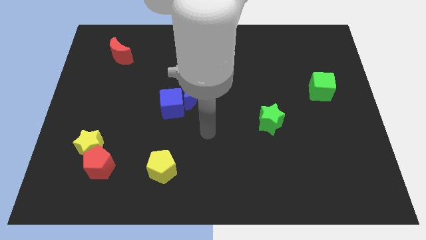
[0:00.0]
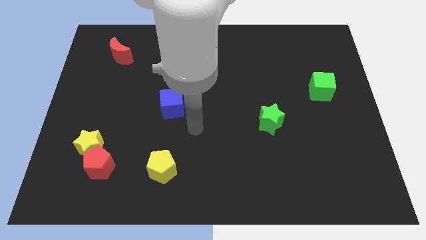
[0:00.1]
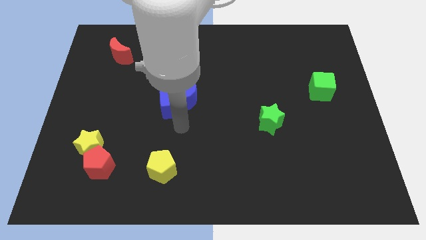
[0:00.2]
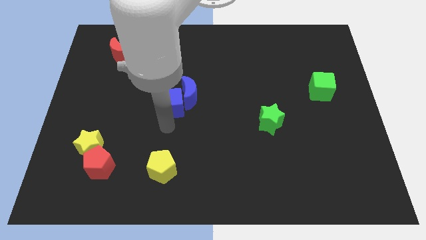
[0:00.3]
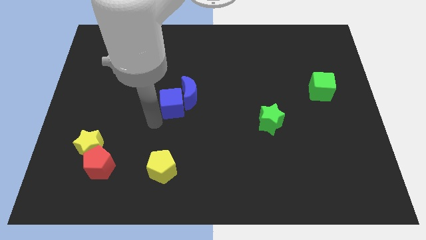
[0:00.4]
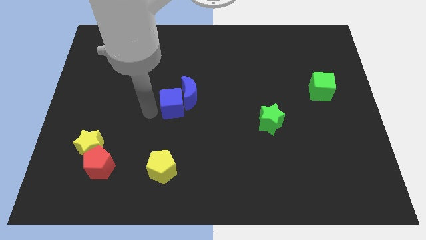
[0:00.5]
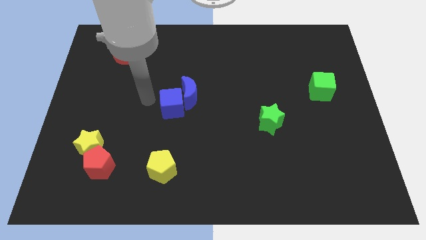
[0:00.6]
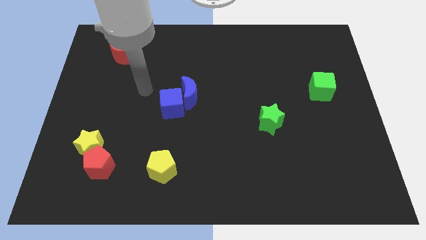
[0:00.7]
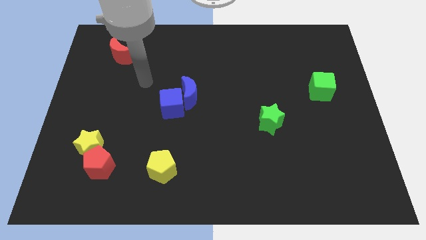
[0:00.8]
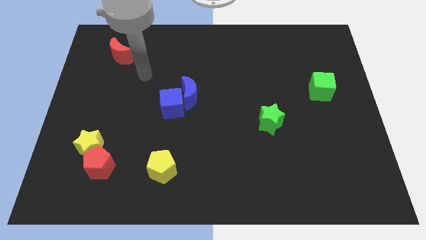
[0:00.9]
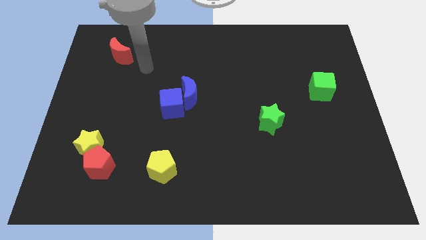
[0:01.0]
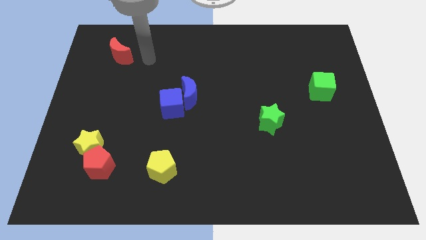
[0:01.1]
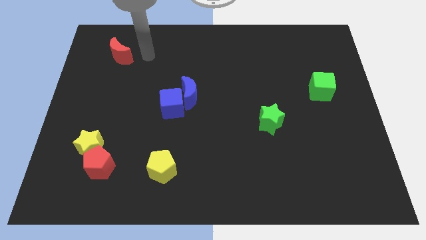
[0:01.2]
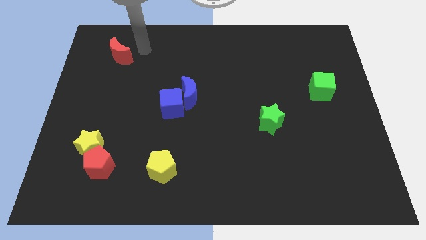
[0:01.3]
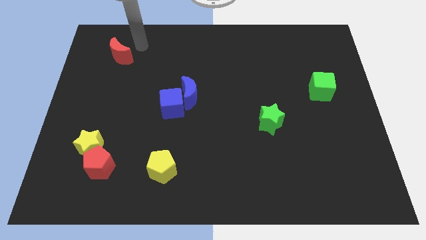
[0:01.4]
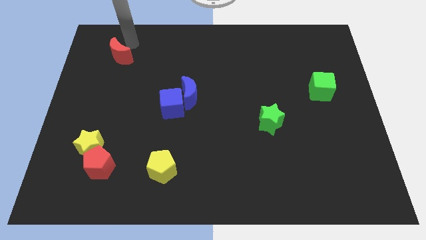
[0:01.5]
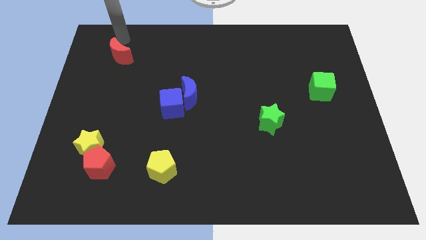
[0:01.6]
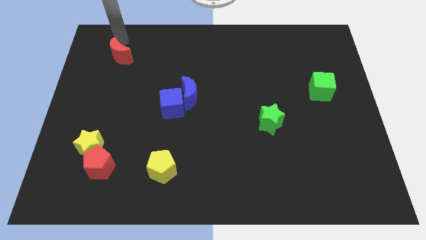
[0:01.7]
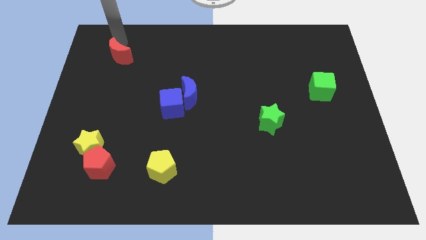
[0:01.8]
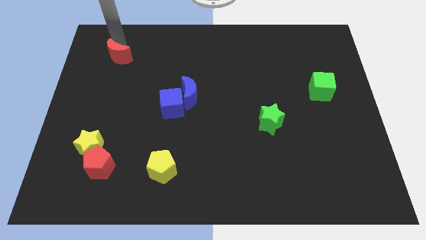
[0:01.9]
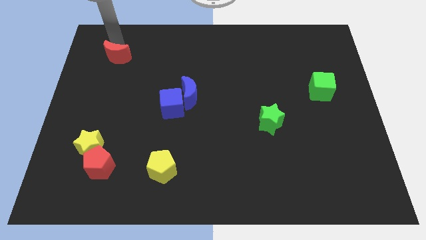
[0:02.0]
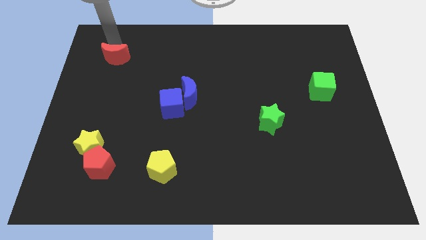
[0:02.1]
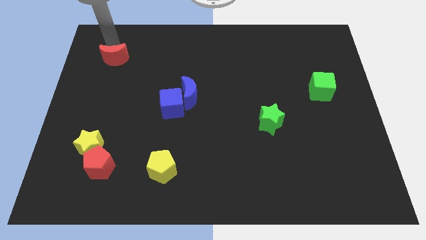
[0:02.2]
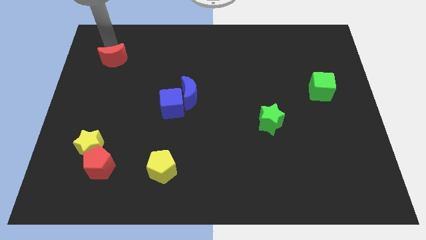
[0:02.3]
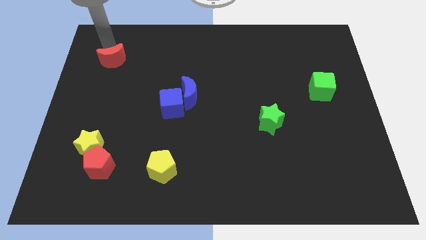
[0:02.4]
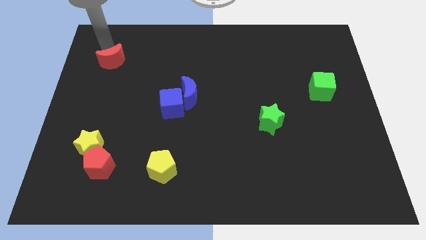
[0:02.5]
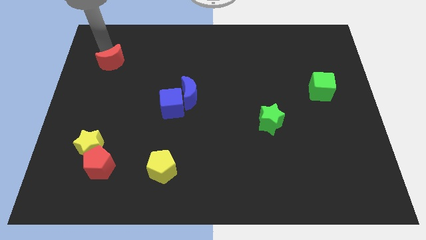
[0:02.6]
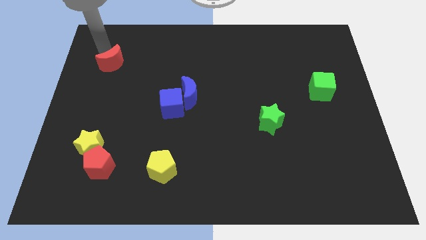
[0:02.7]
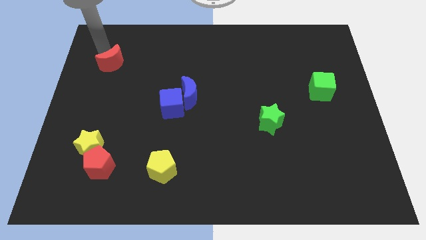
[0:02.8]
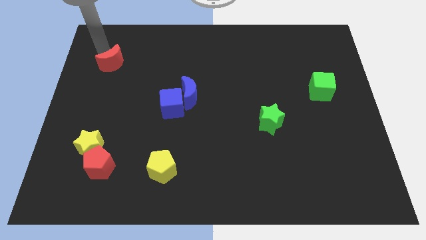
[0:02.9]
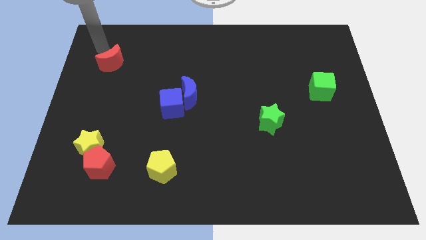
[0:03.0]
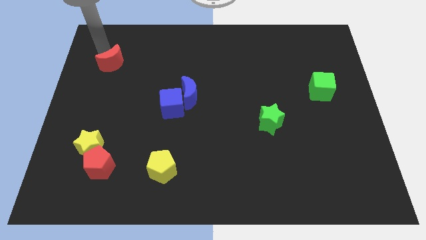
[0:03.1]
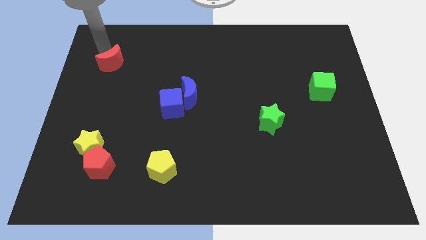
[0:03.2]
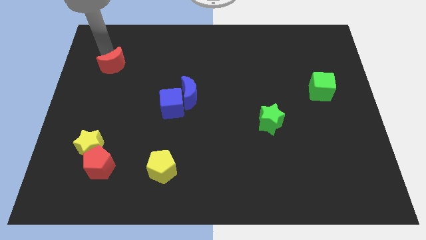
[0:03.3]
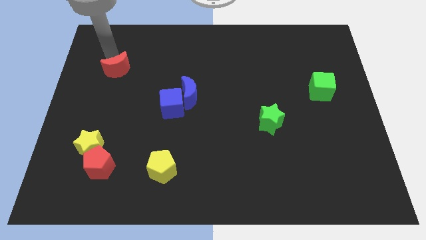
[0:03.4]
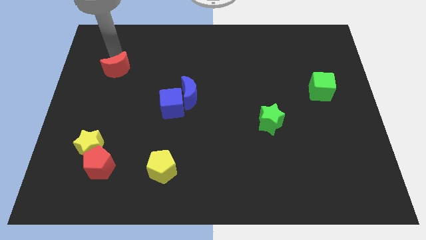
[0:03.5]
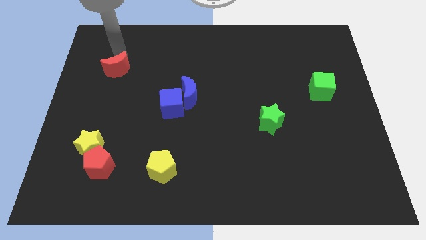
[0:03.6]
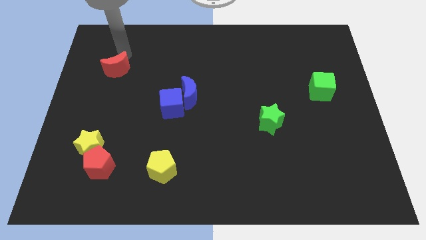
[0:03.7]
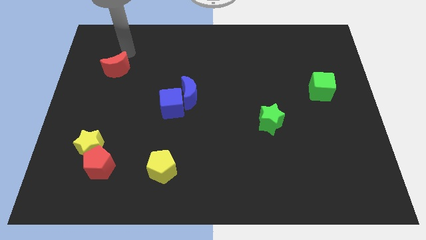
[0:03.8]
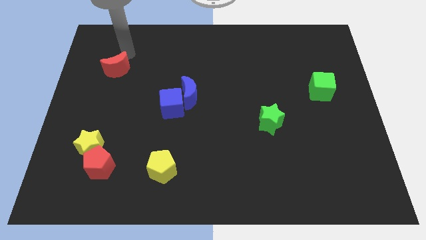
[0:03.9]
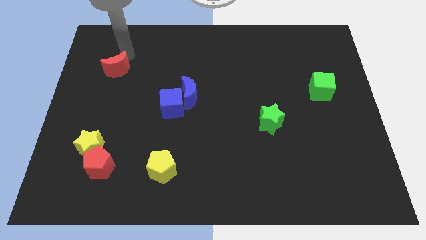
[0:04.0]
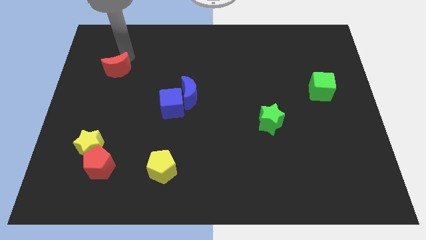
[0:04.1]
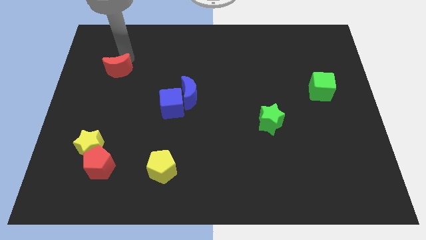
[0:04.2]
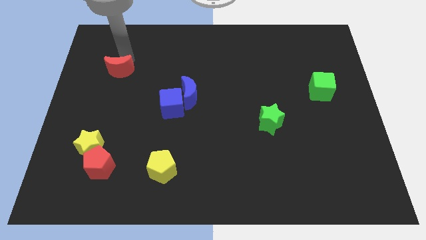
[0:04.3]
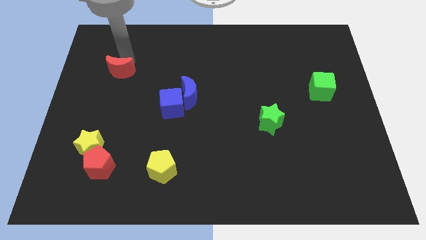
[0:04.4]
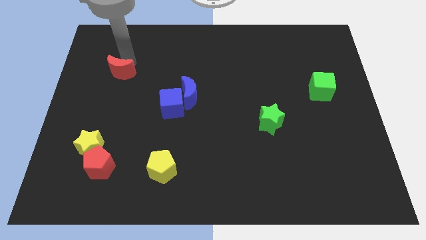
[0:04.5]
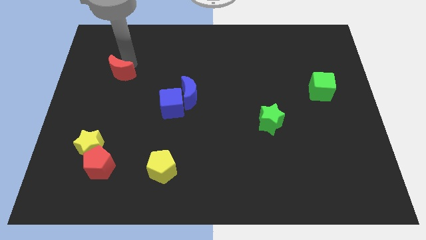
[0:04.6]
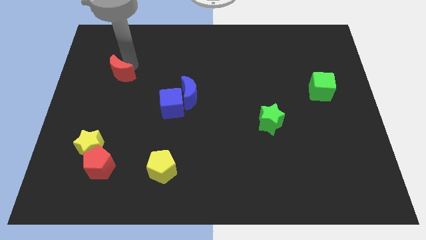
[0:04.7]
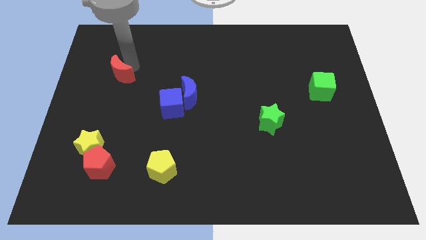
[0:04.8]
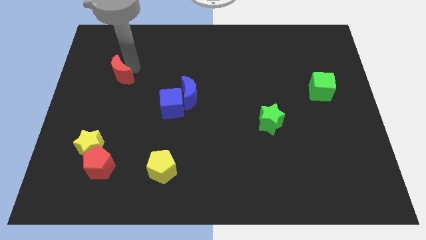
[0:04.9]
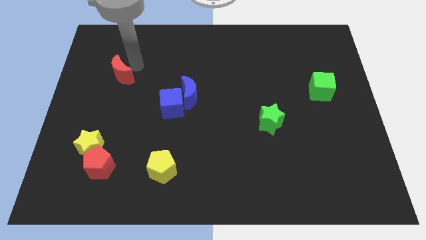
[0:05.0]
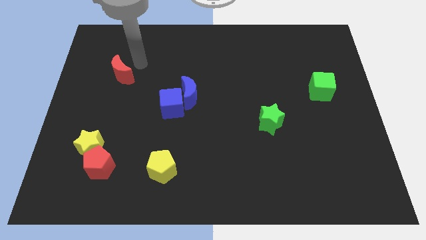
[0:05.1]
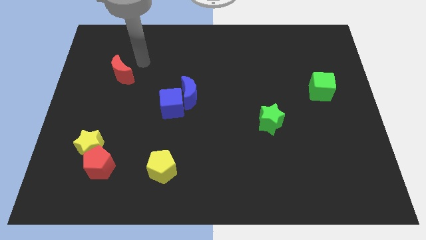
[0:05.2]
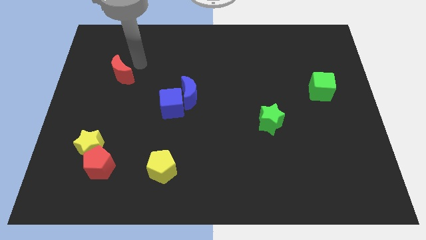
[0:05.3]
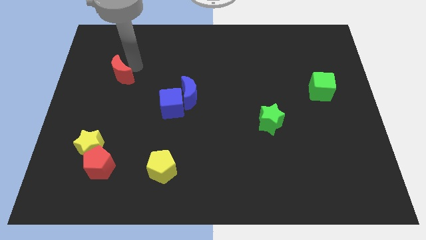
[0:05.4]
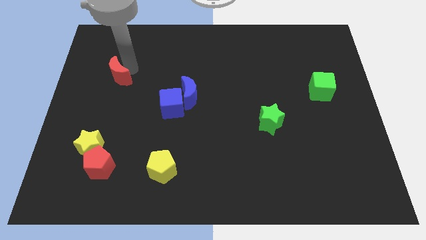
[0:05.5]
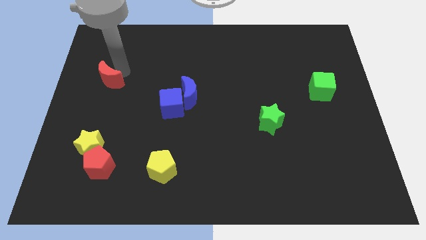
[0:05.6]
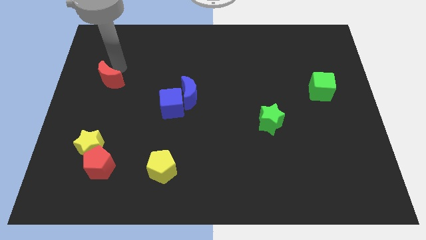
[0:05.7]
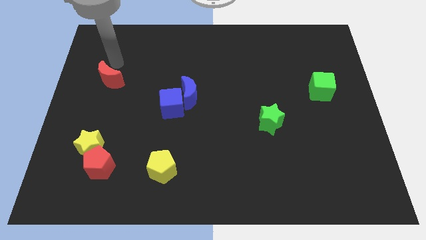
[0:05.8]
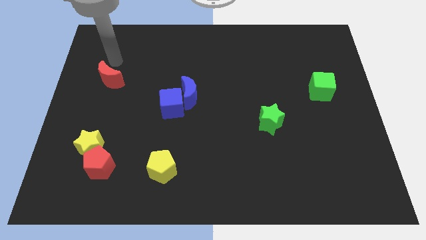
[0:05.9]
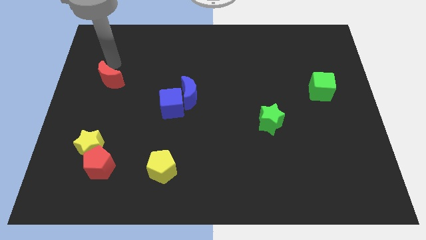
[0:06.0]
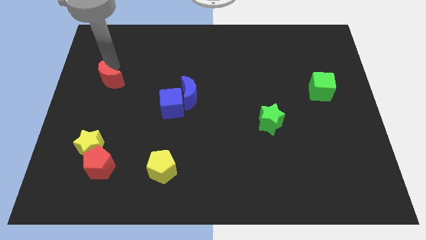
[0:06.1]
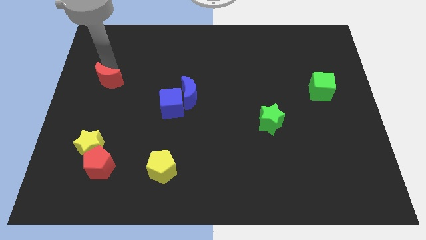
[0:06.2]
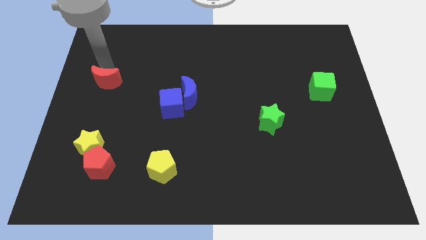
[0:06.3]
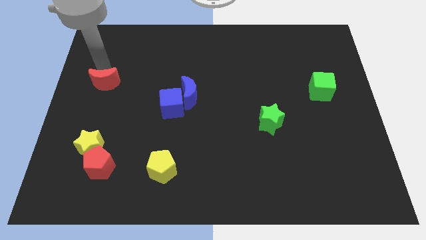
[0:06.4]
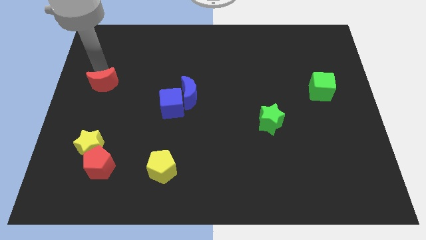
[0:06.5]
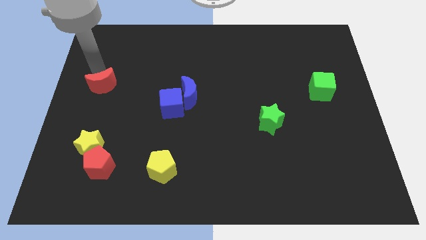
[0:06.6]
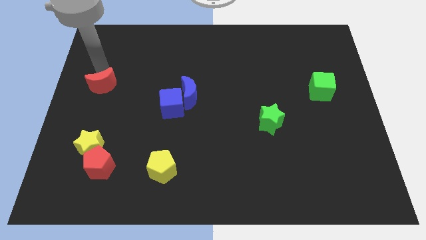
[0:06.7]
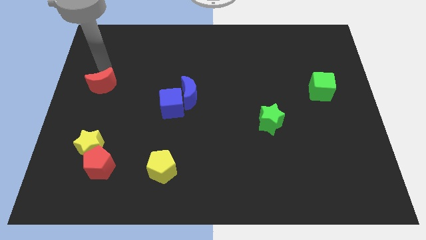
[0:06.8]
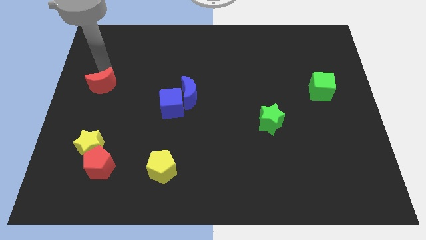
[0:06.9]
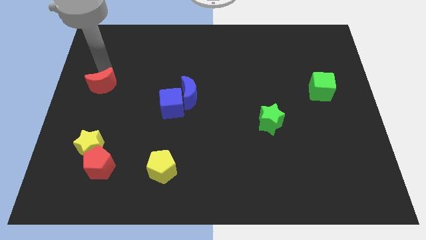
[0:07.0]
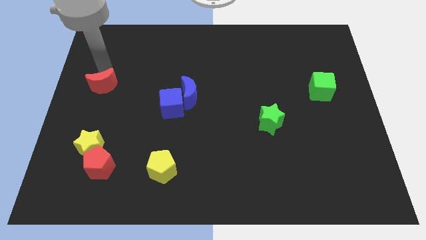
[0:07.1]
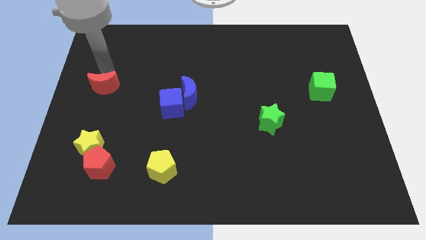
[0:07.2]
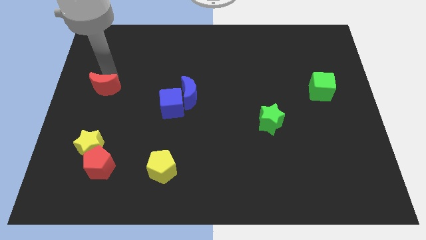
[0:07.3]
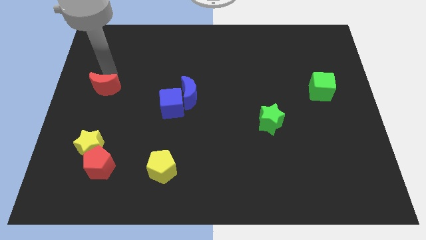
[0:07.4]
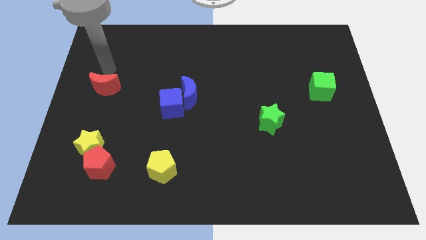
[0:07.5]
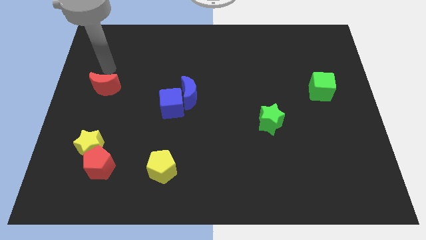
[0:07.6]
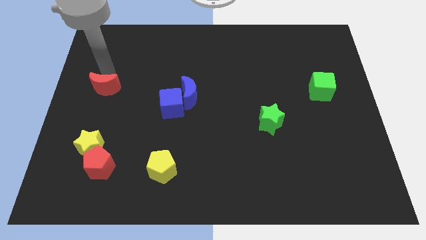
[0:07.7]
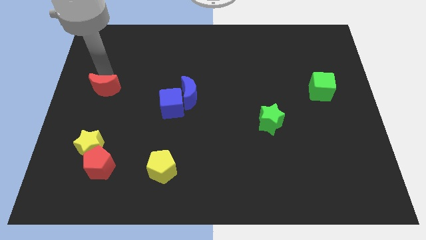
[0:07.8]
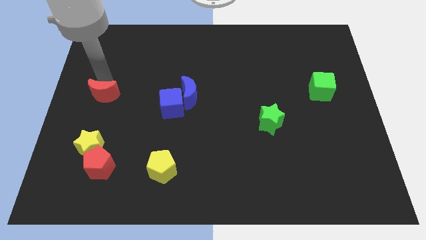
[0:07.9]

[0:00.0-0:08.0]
slide the red moon above the yellow star
